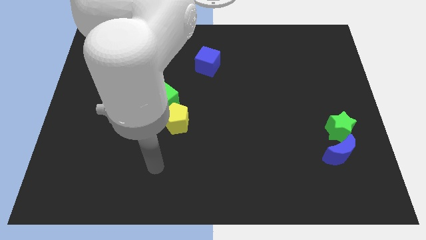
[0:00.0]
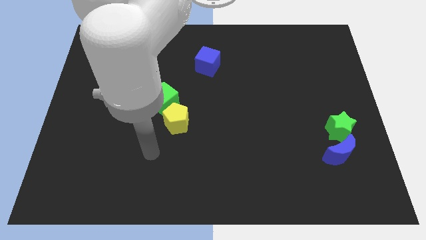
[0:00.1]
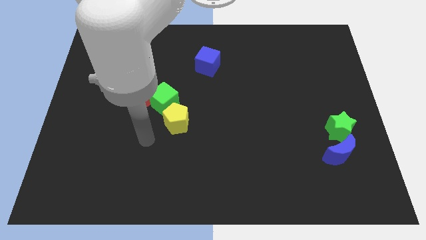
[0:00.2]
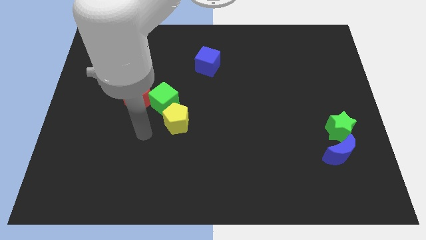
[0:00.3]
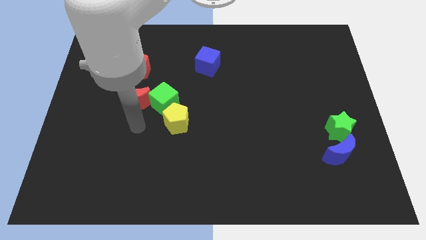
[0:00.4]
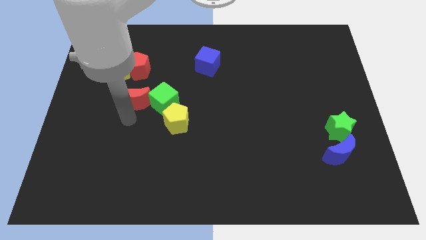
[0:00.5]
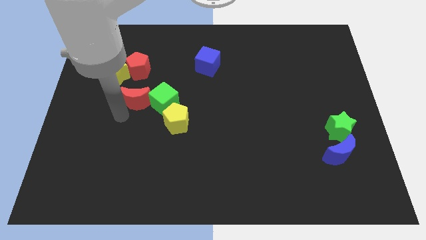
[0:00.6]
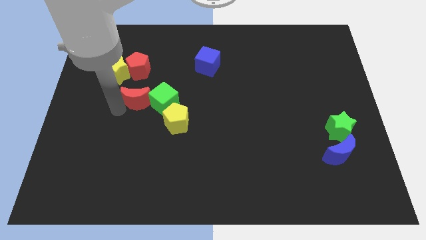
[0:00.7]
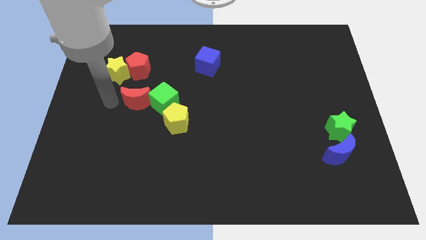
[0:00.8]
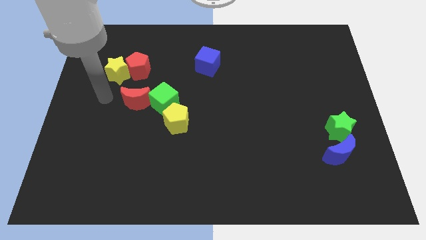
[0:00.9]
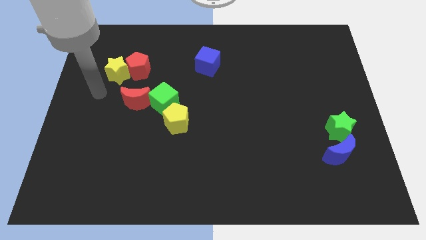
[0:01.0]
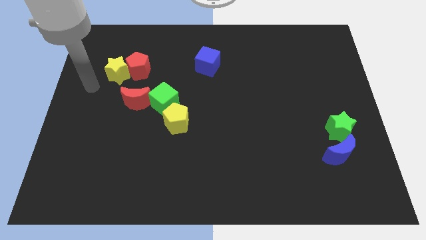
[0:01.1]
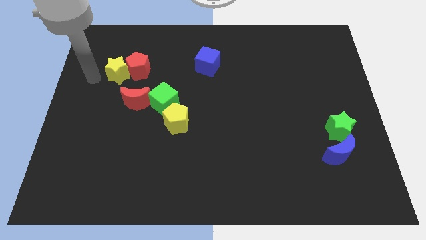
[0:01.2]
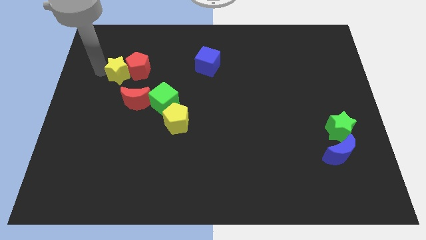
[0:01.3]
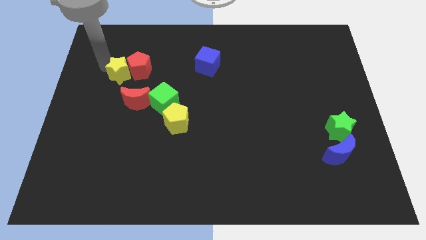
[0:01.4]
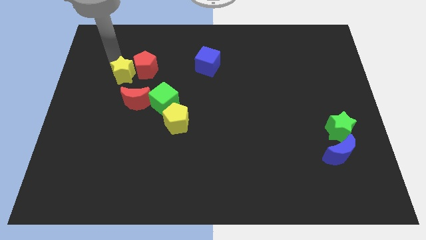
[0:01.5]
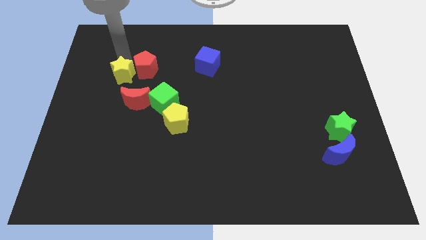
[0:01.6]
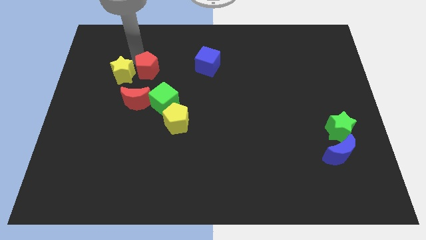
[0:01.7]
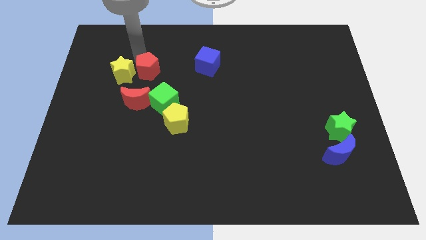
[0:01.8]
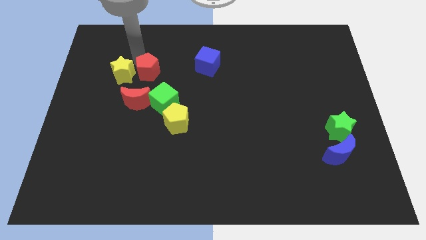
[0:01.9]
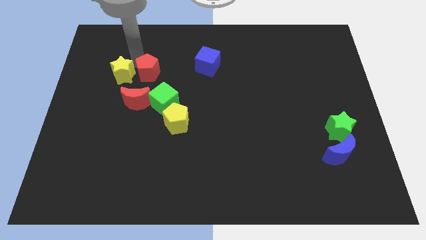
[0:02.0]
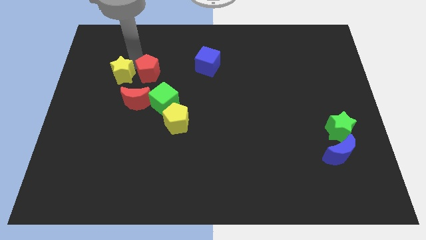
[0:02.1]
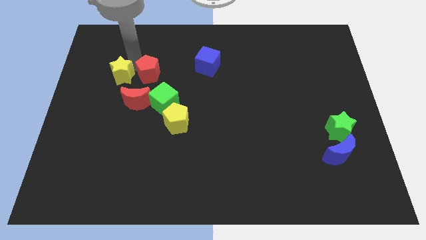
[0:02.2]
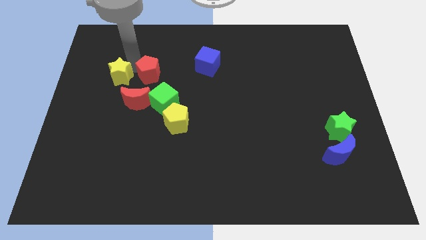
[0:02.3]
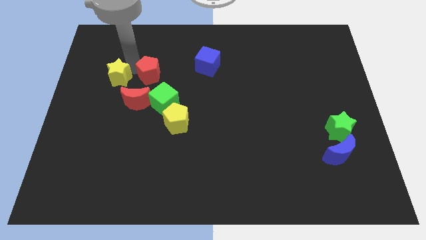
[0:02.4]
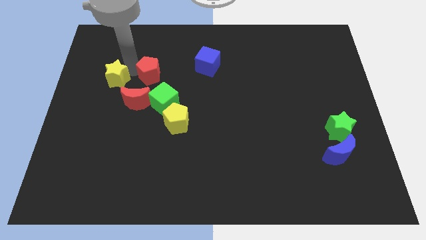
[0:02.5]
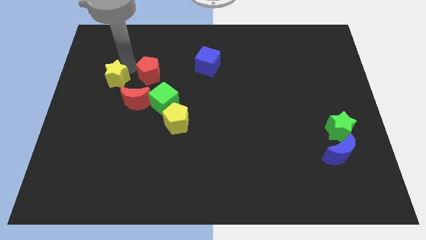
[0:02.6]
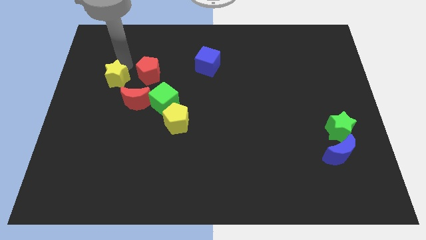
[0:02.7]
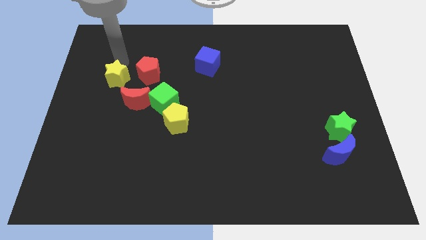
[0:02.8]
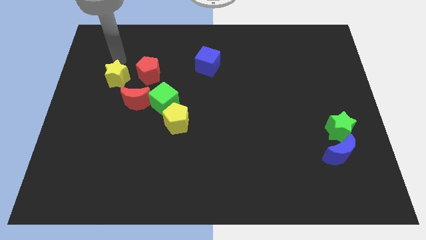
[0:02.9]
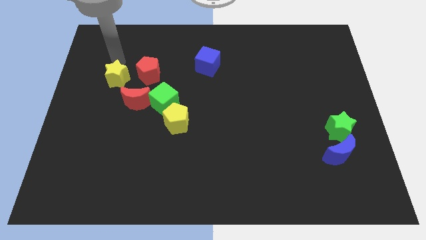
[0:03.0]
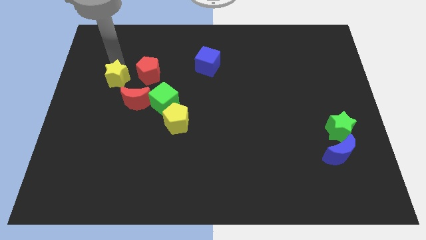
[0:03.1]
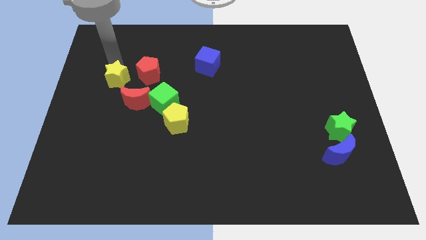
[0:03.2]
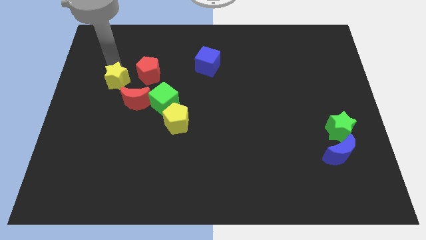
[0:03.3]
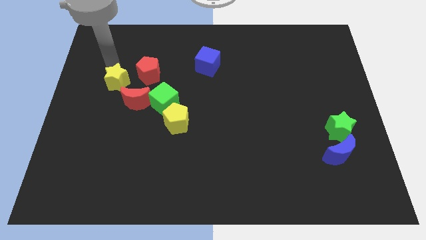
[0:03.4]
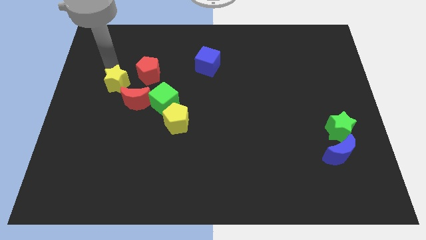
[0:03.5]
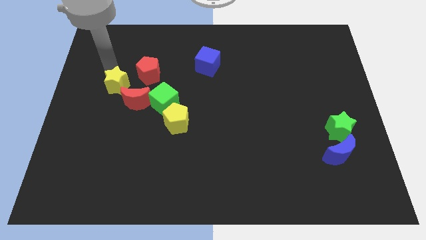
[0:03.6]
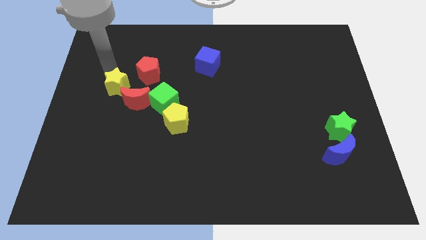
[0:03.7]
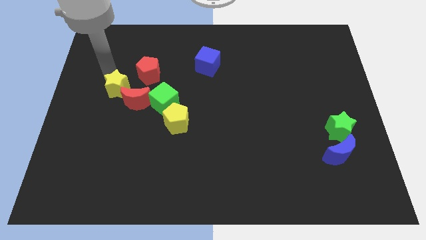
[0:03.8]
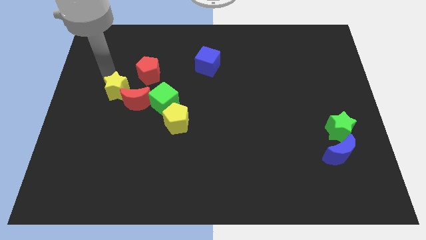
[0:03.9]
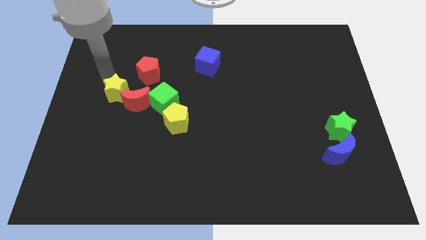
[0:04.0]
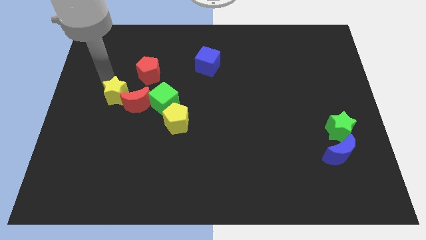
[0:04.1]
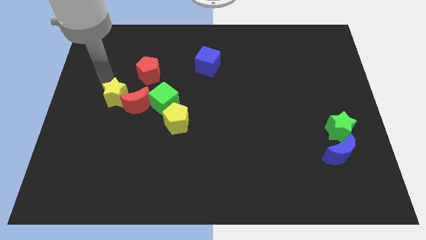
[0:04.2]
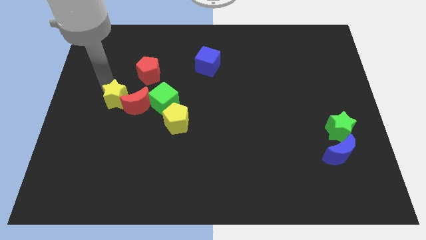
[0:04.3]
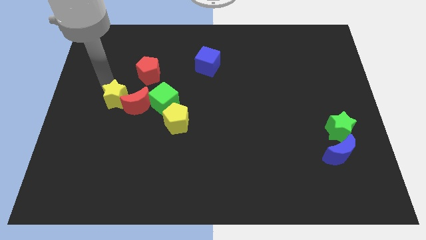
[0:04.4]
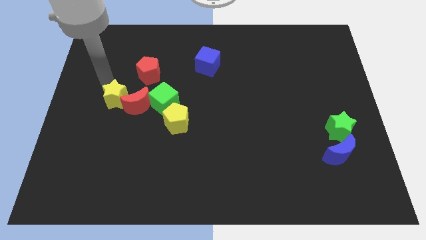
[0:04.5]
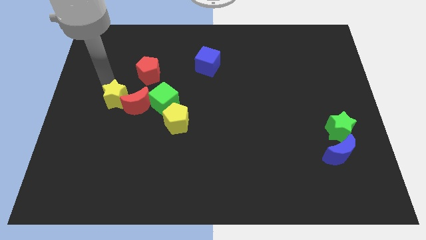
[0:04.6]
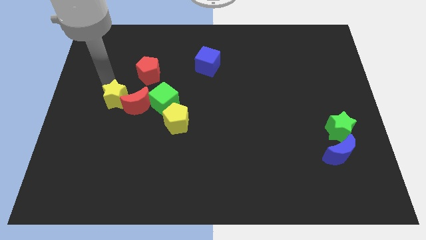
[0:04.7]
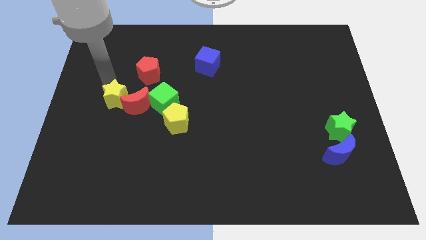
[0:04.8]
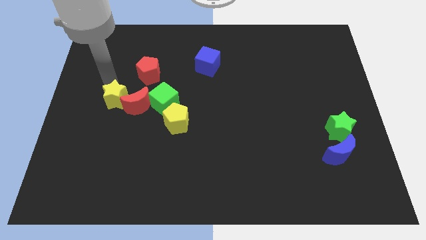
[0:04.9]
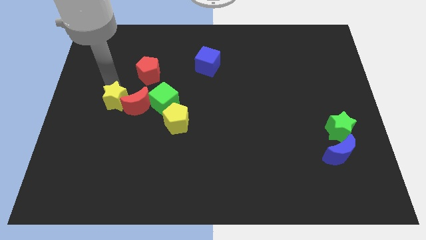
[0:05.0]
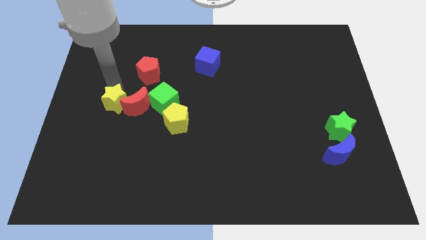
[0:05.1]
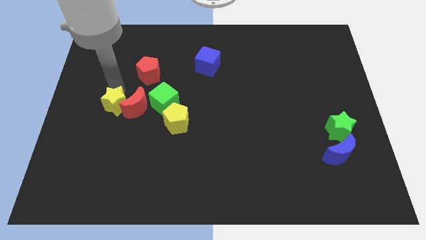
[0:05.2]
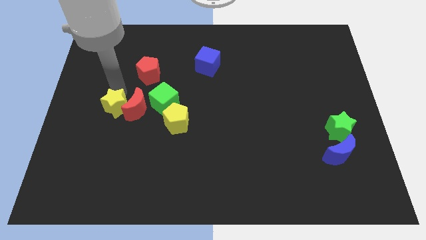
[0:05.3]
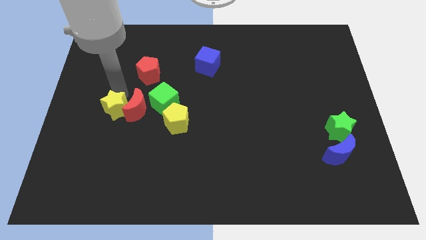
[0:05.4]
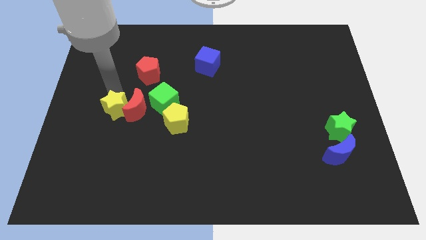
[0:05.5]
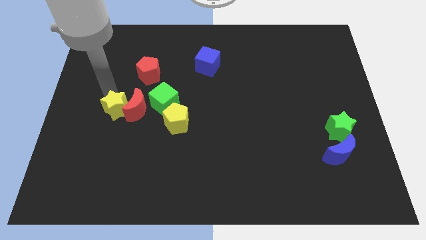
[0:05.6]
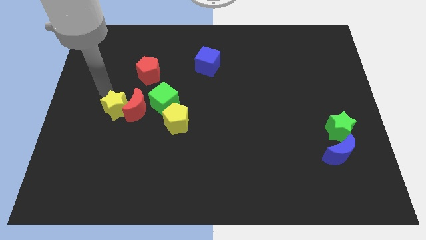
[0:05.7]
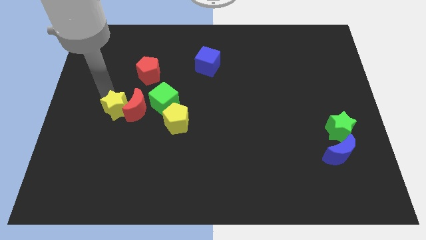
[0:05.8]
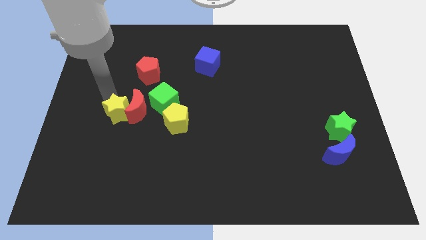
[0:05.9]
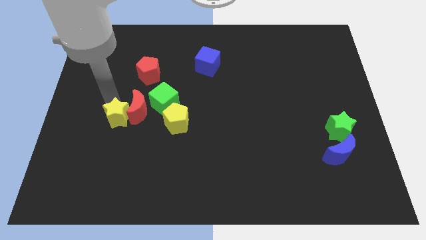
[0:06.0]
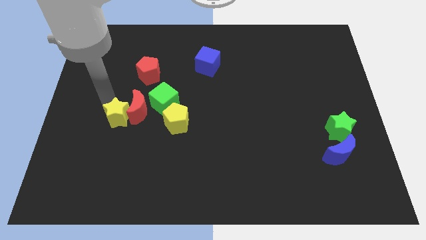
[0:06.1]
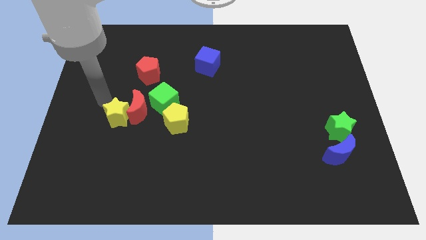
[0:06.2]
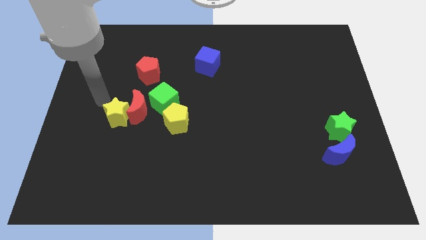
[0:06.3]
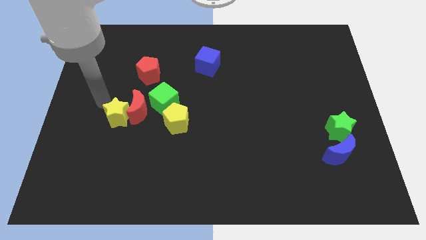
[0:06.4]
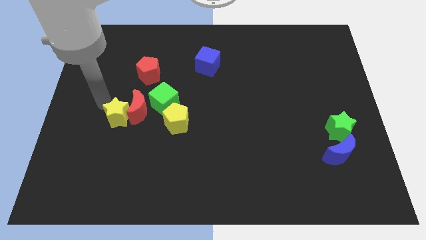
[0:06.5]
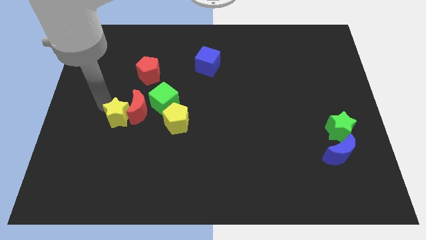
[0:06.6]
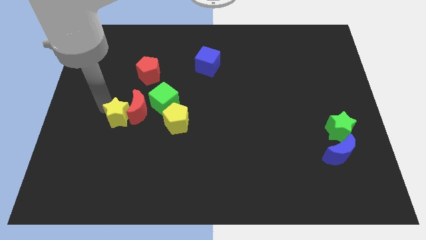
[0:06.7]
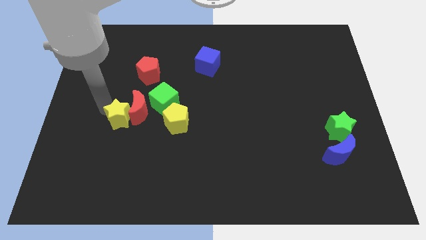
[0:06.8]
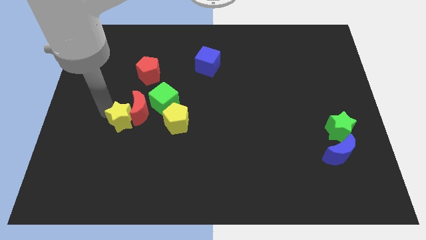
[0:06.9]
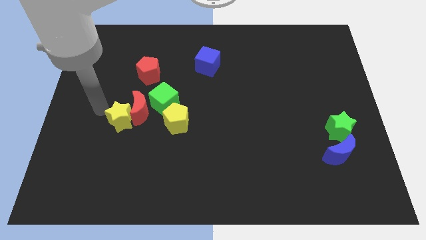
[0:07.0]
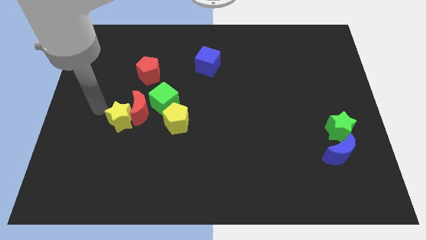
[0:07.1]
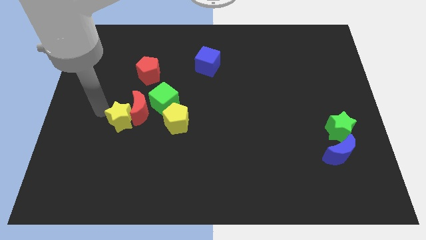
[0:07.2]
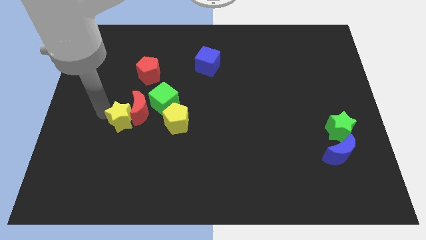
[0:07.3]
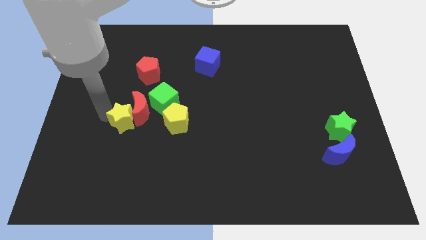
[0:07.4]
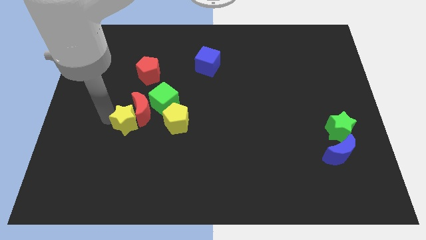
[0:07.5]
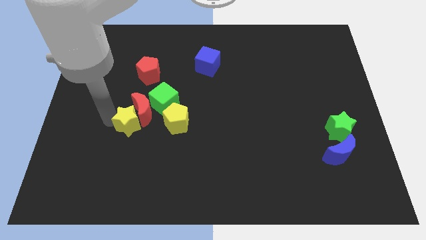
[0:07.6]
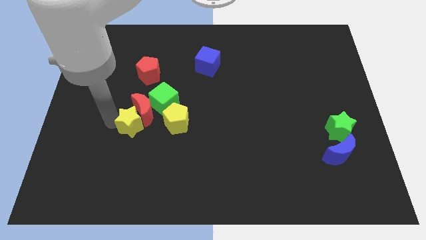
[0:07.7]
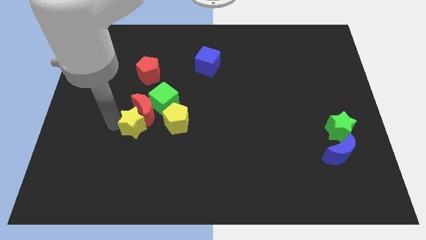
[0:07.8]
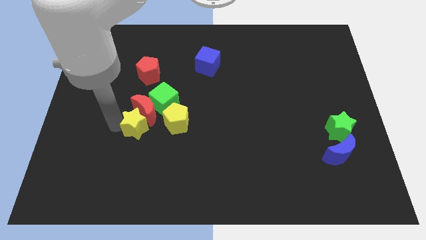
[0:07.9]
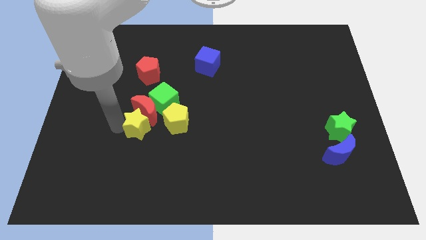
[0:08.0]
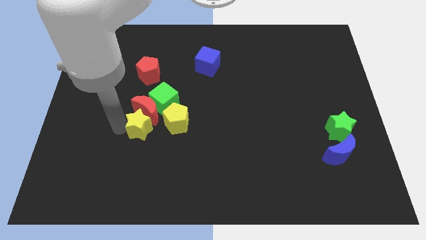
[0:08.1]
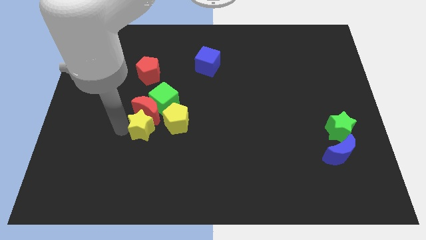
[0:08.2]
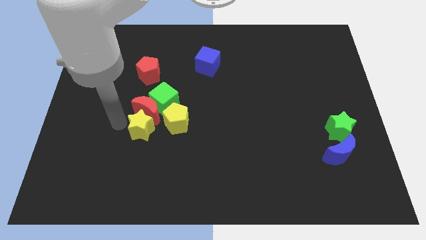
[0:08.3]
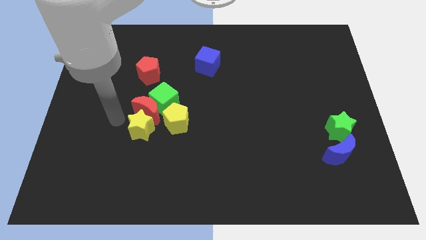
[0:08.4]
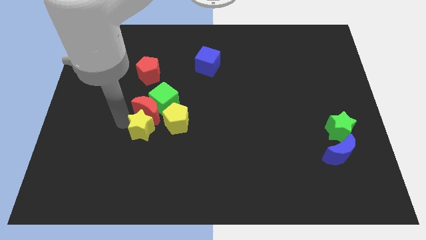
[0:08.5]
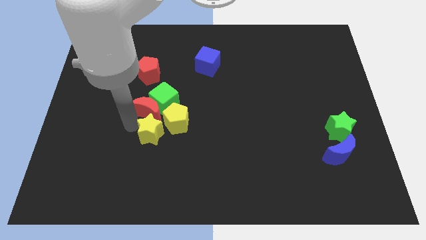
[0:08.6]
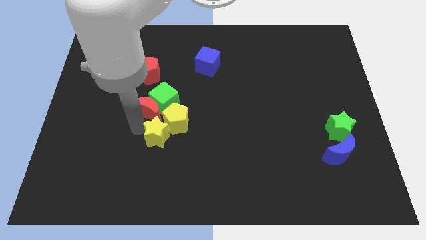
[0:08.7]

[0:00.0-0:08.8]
slide the yellow star down and then to the right
